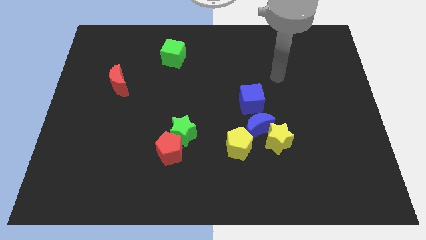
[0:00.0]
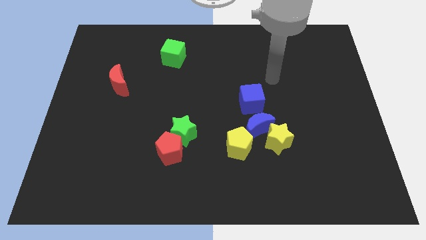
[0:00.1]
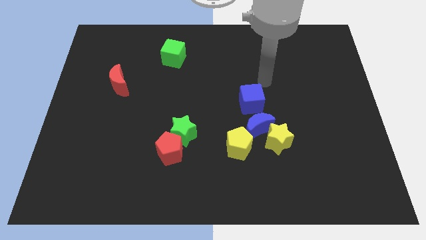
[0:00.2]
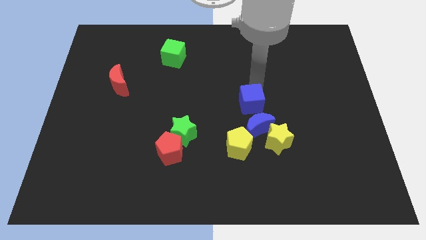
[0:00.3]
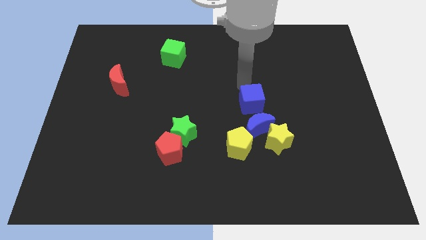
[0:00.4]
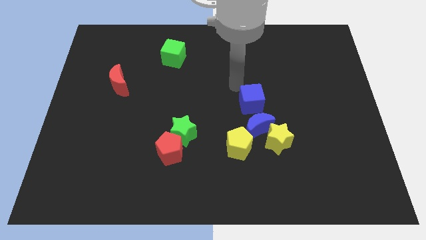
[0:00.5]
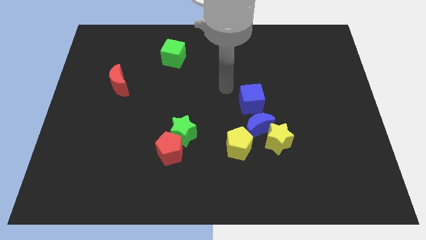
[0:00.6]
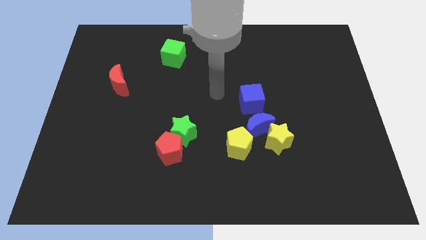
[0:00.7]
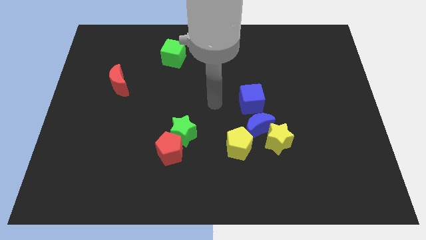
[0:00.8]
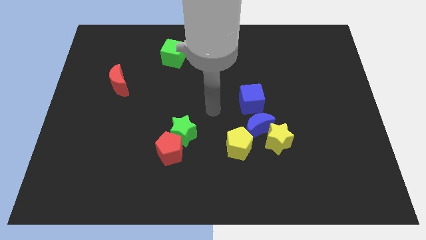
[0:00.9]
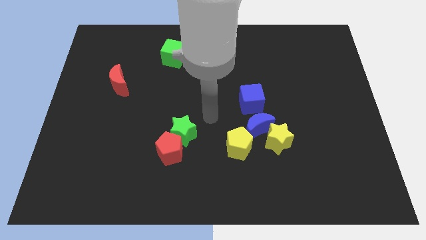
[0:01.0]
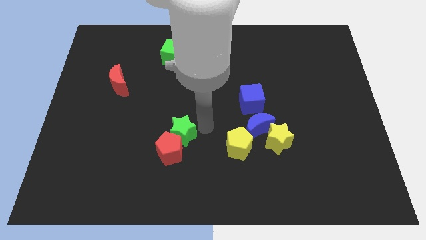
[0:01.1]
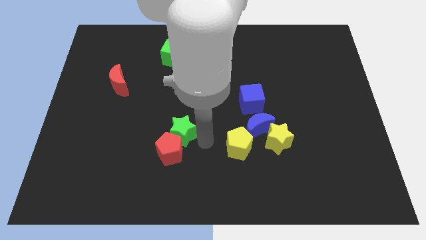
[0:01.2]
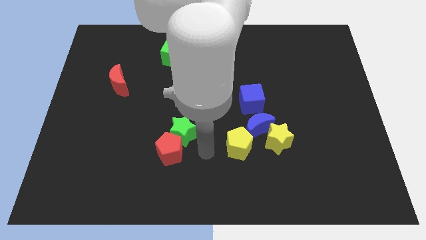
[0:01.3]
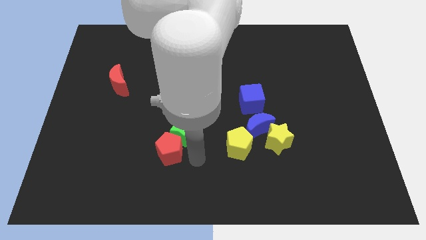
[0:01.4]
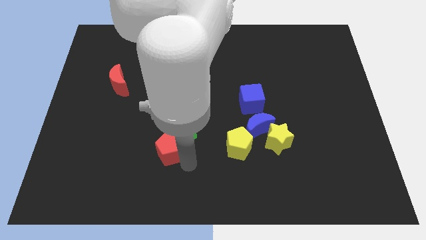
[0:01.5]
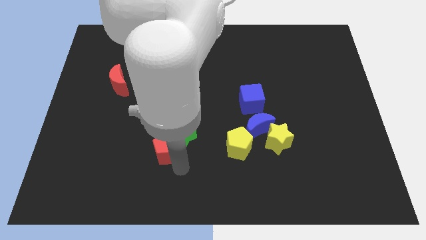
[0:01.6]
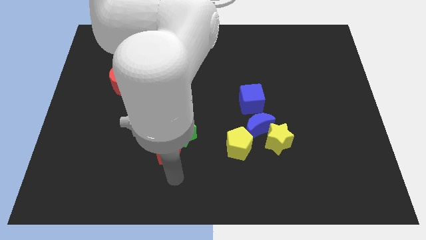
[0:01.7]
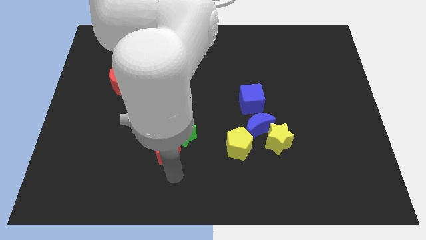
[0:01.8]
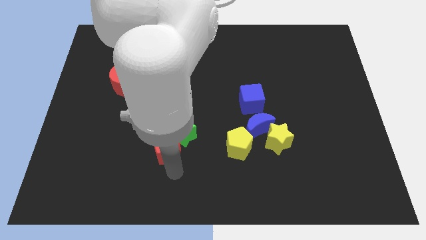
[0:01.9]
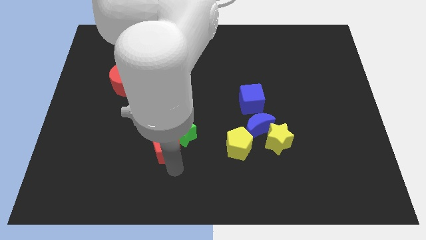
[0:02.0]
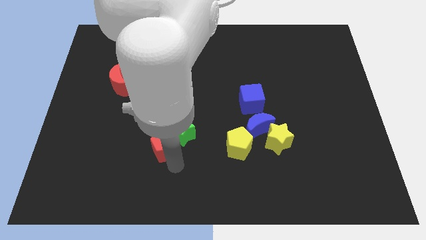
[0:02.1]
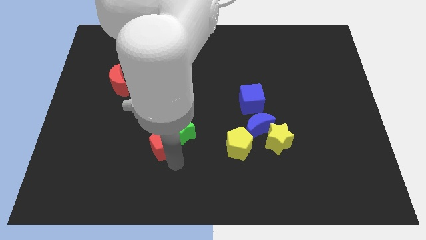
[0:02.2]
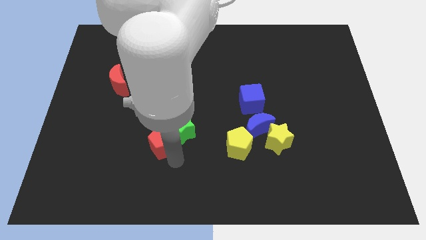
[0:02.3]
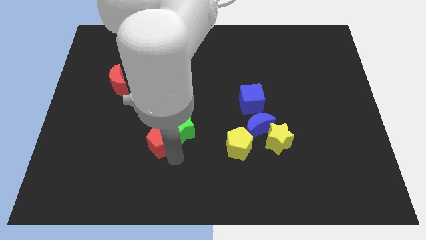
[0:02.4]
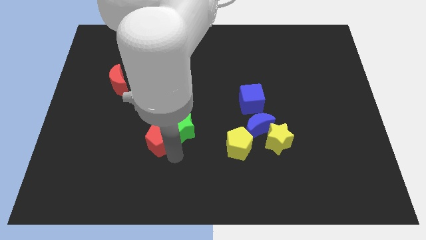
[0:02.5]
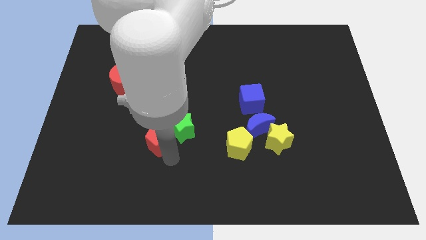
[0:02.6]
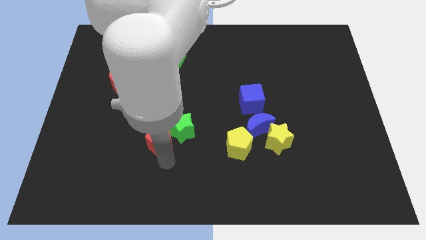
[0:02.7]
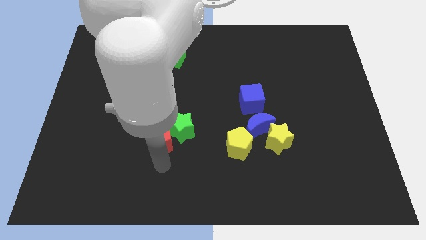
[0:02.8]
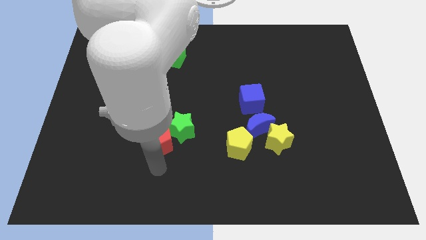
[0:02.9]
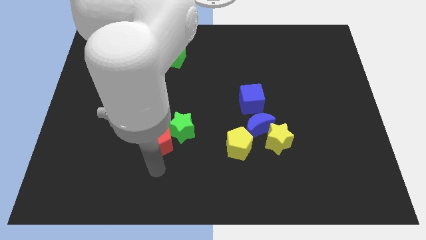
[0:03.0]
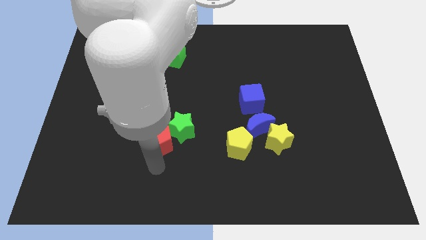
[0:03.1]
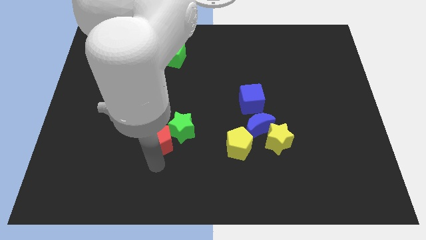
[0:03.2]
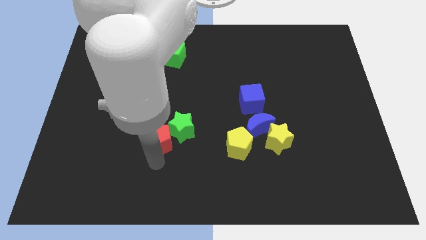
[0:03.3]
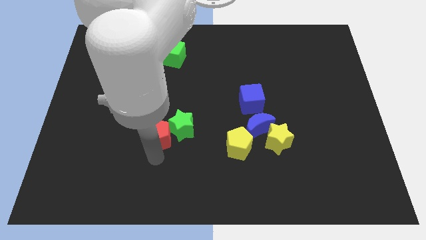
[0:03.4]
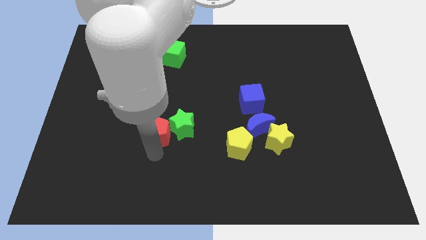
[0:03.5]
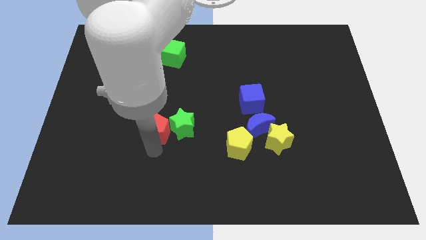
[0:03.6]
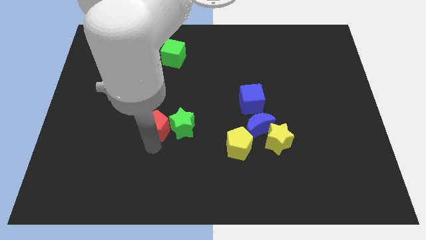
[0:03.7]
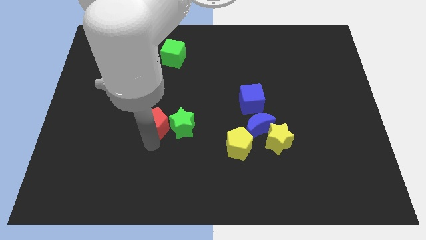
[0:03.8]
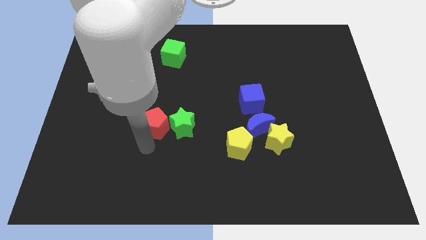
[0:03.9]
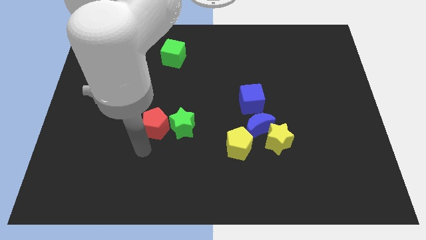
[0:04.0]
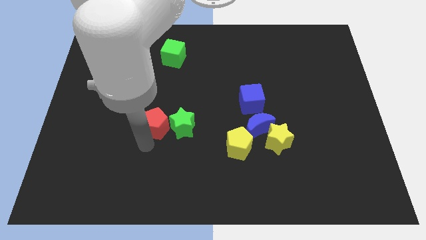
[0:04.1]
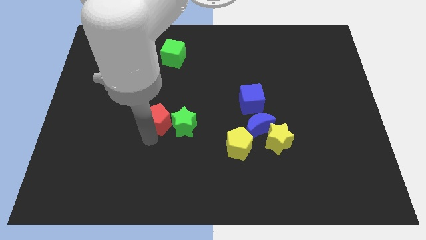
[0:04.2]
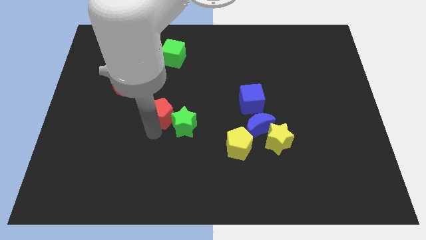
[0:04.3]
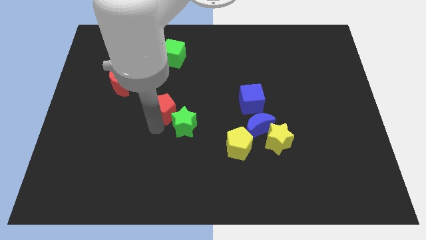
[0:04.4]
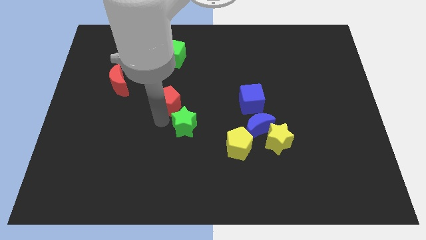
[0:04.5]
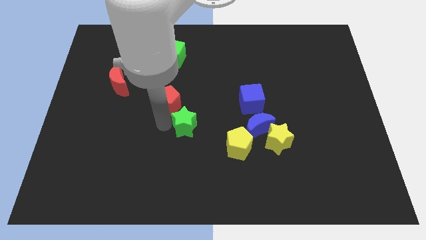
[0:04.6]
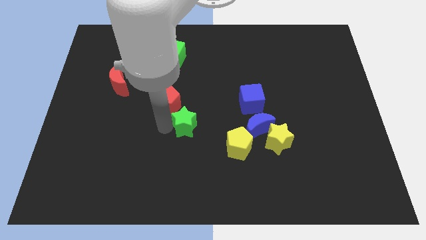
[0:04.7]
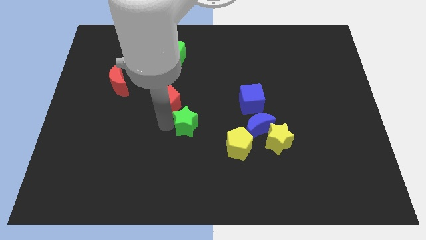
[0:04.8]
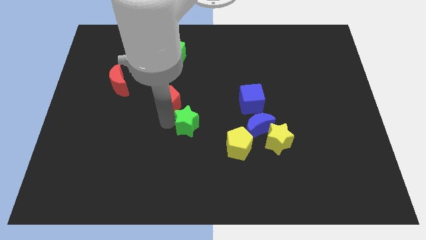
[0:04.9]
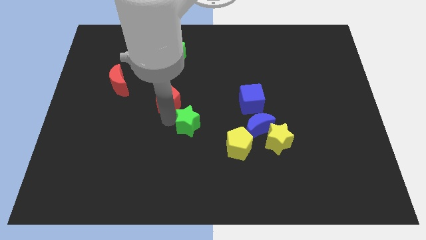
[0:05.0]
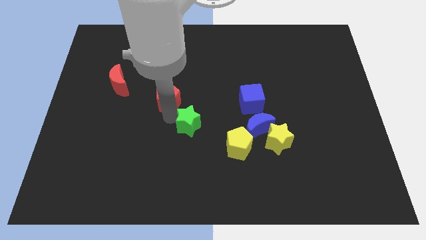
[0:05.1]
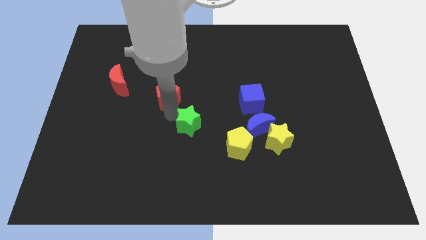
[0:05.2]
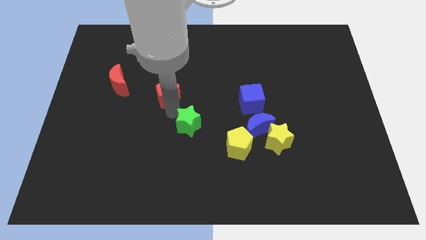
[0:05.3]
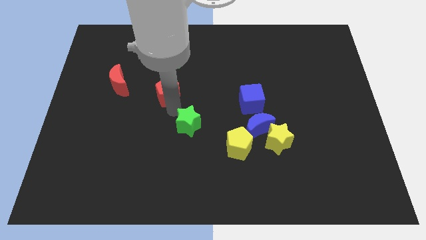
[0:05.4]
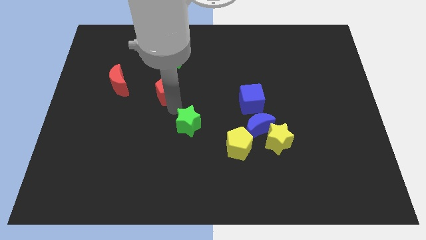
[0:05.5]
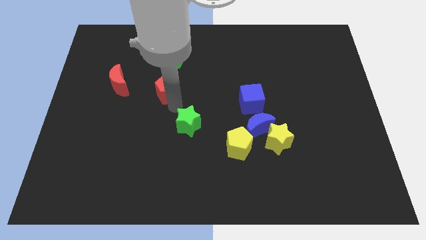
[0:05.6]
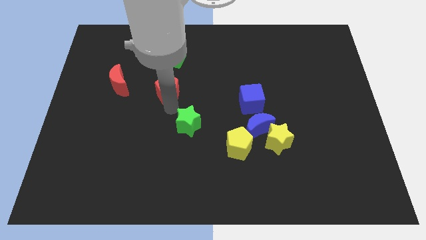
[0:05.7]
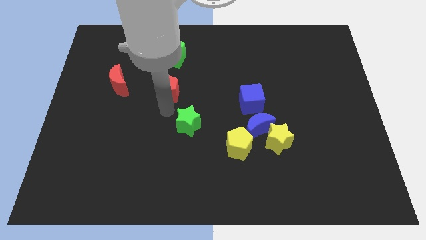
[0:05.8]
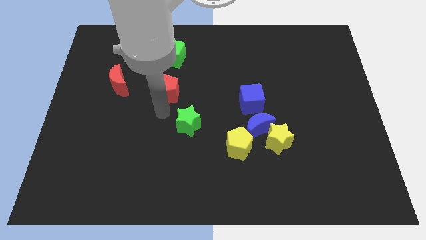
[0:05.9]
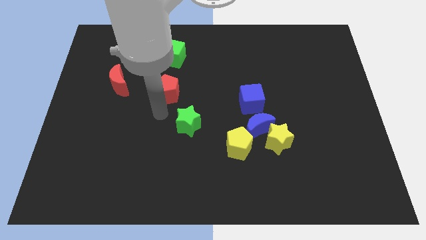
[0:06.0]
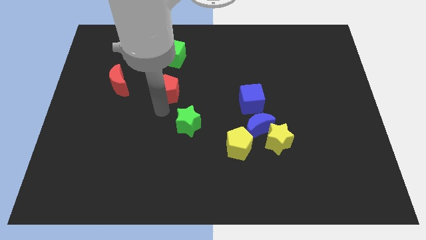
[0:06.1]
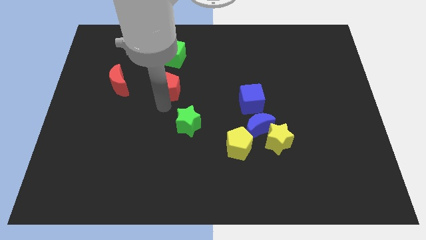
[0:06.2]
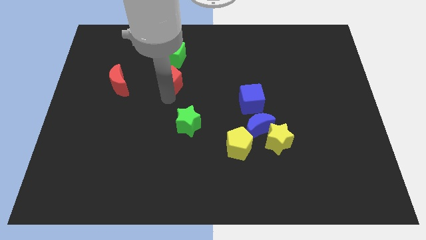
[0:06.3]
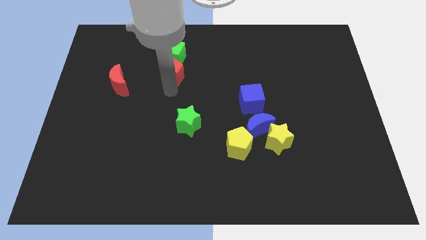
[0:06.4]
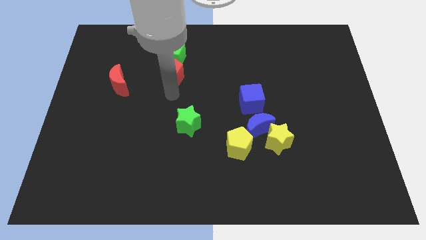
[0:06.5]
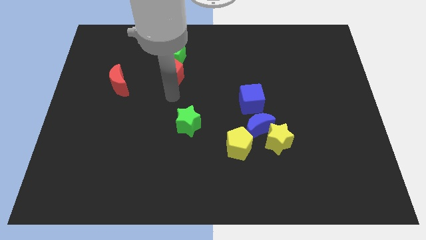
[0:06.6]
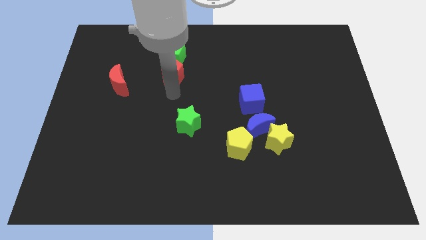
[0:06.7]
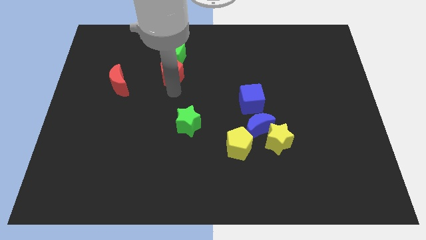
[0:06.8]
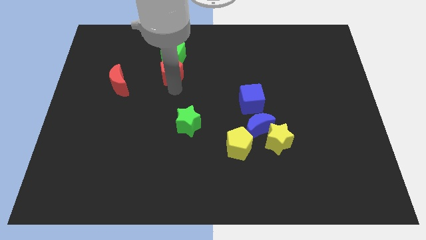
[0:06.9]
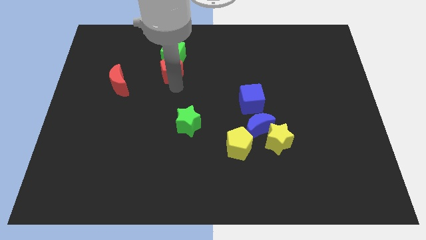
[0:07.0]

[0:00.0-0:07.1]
move the red pentagon to the green cube
